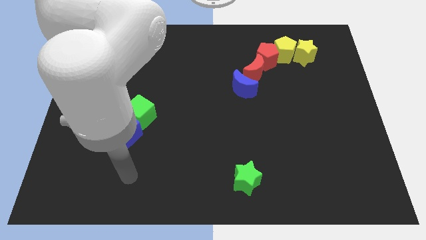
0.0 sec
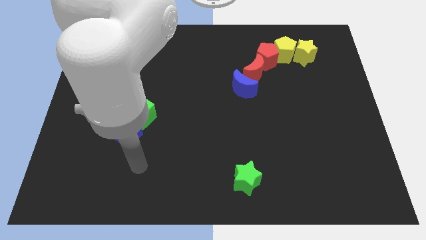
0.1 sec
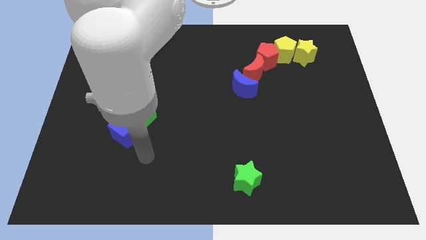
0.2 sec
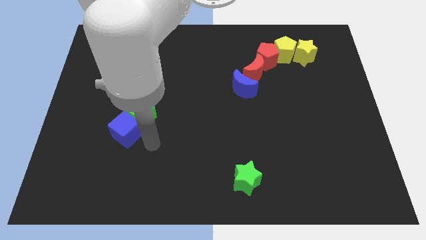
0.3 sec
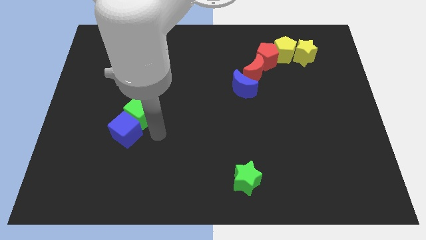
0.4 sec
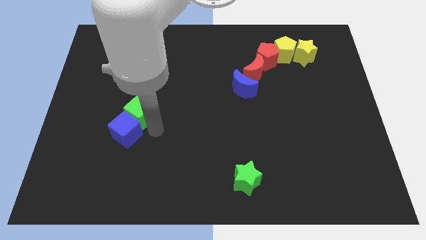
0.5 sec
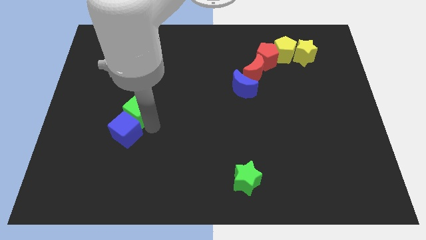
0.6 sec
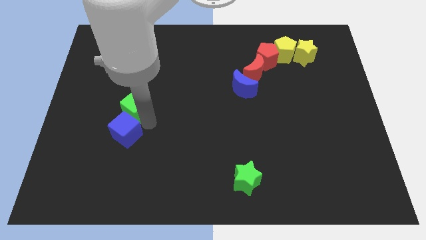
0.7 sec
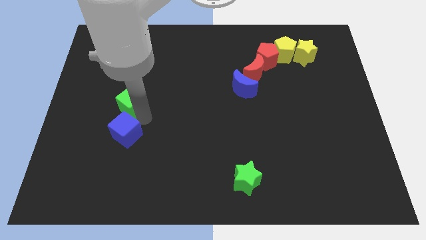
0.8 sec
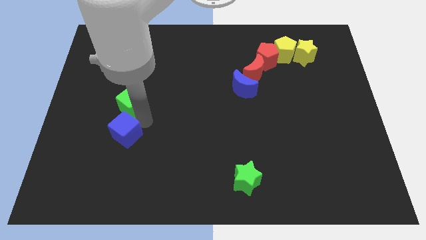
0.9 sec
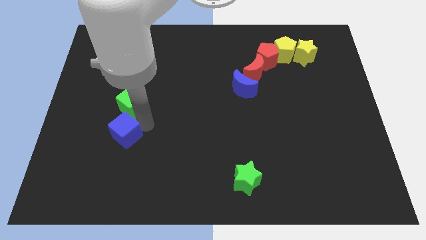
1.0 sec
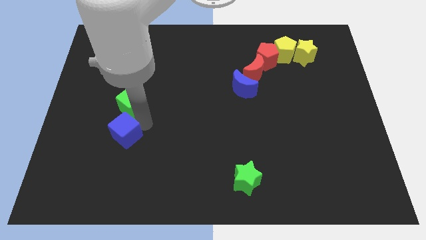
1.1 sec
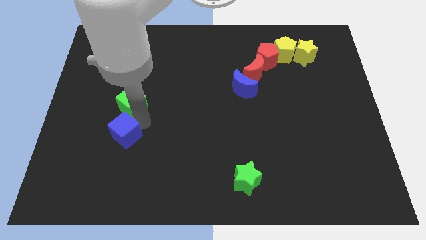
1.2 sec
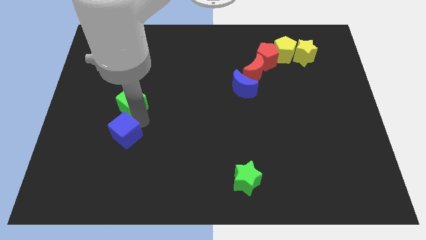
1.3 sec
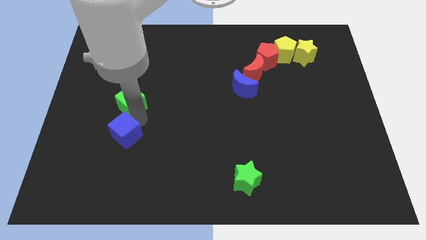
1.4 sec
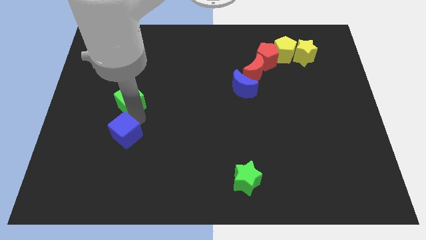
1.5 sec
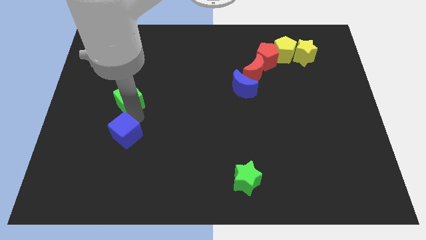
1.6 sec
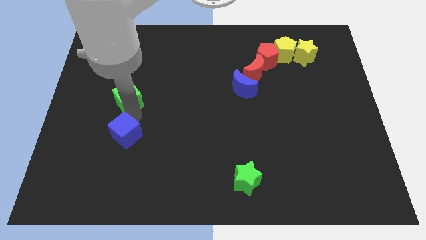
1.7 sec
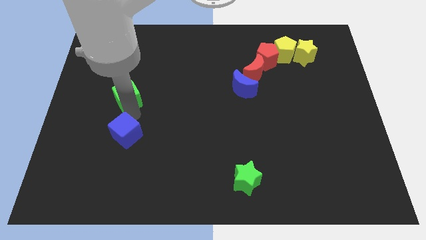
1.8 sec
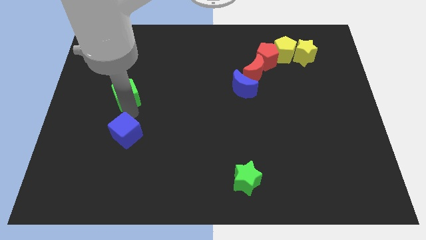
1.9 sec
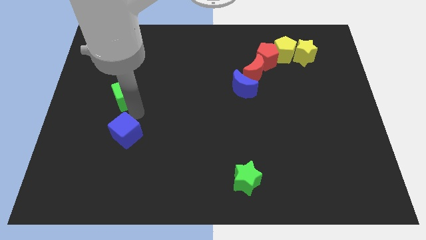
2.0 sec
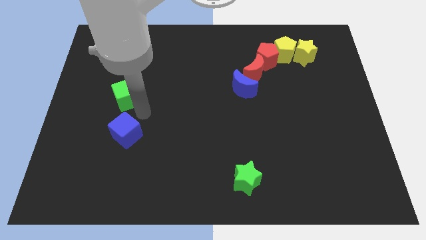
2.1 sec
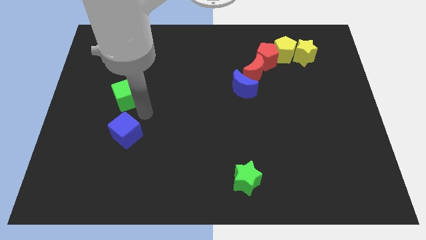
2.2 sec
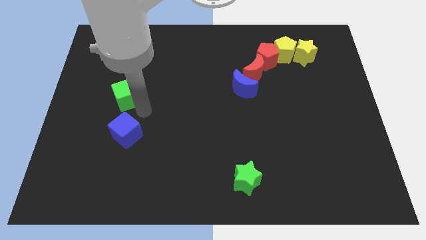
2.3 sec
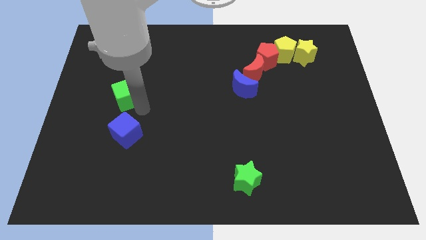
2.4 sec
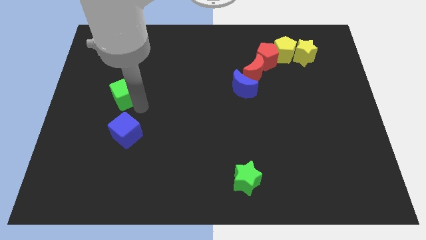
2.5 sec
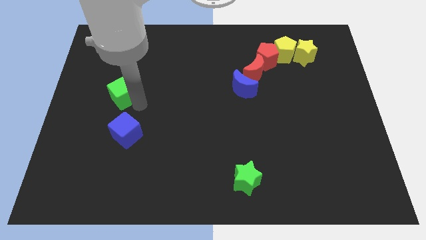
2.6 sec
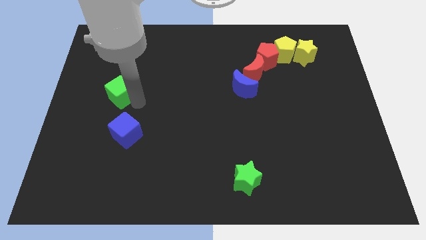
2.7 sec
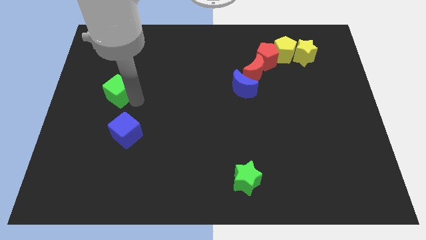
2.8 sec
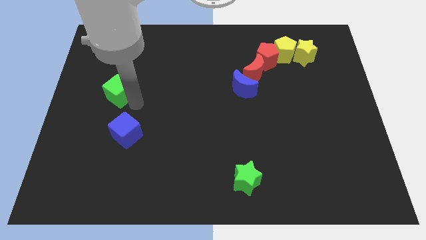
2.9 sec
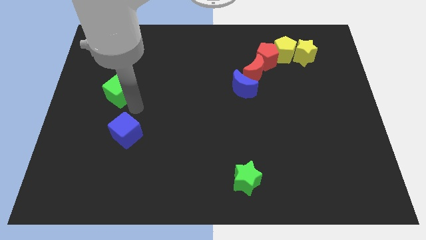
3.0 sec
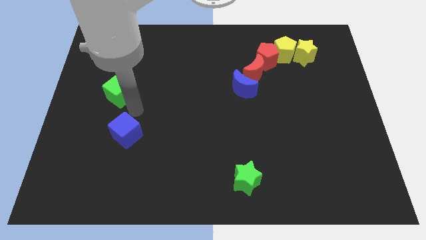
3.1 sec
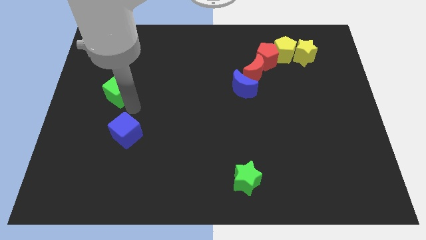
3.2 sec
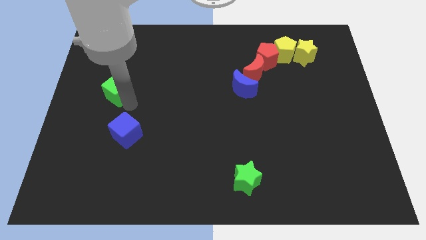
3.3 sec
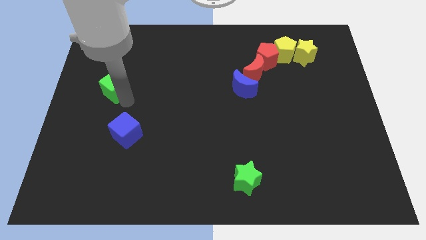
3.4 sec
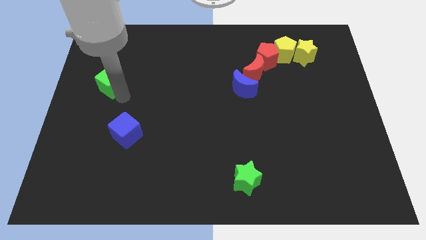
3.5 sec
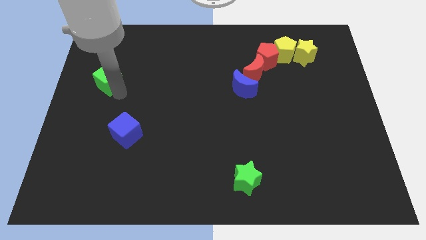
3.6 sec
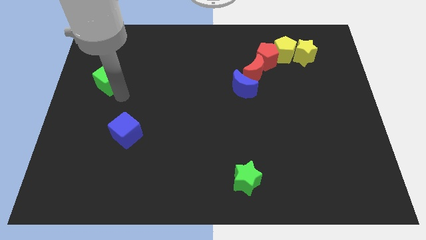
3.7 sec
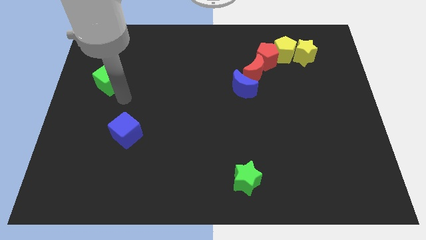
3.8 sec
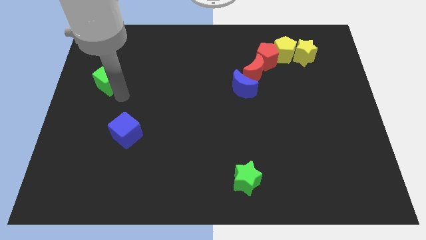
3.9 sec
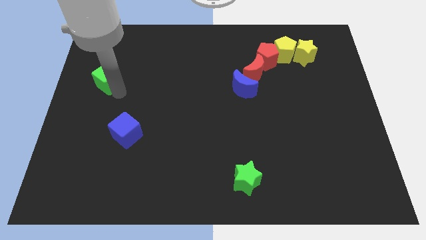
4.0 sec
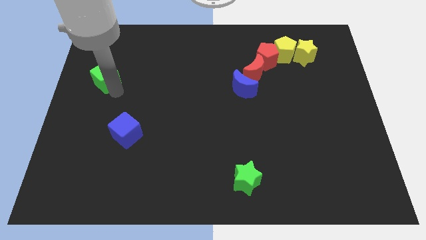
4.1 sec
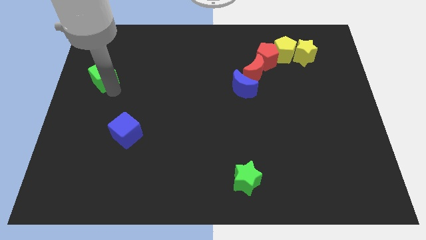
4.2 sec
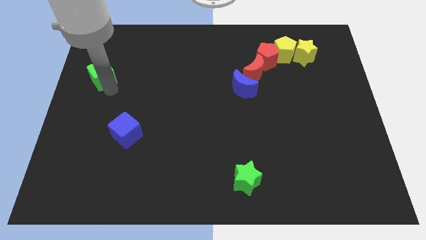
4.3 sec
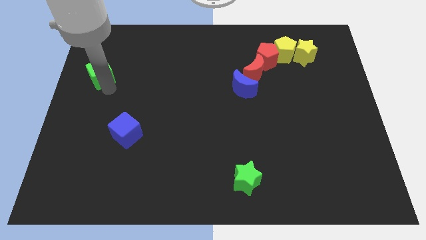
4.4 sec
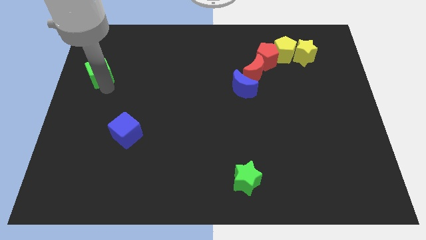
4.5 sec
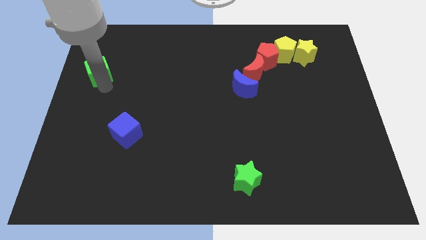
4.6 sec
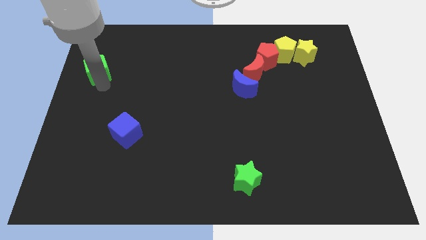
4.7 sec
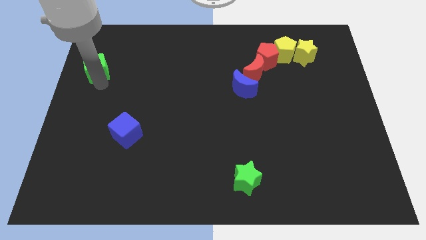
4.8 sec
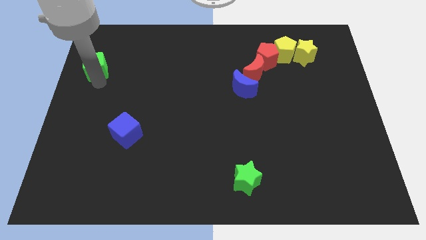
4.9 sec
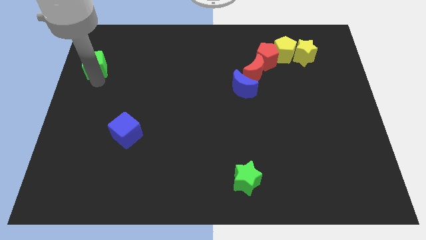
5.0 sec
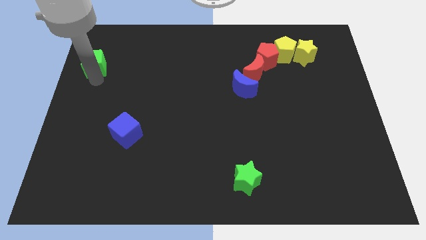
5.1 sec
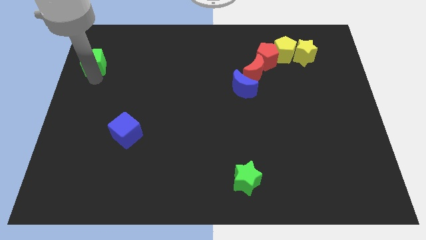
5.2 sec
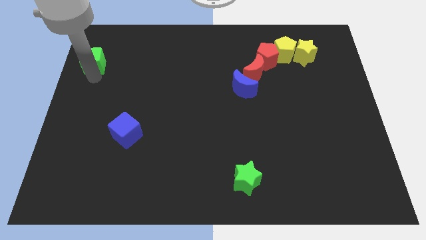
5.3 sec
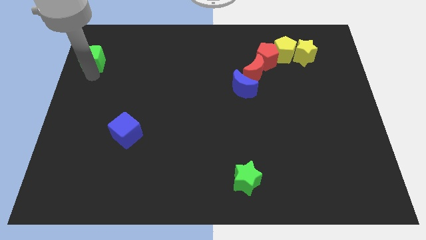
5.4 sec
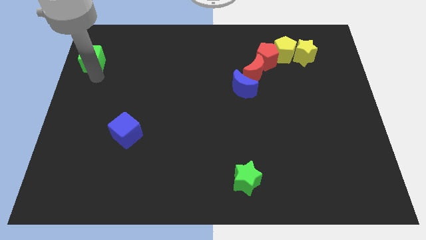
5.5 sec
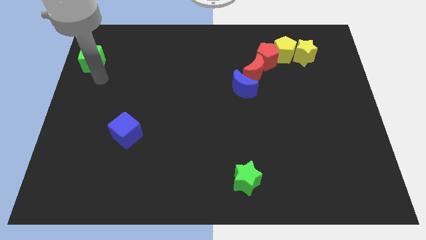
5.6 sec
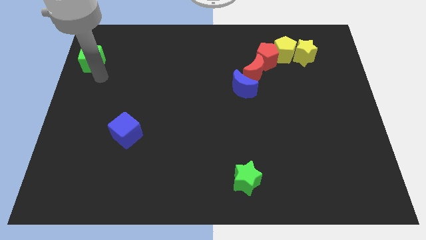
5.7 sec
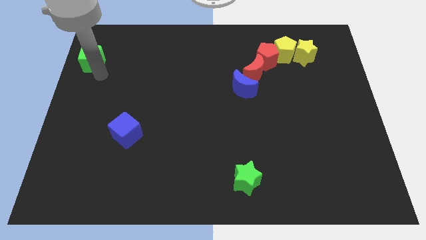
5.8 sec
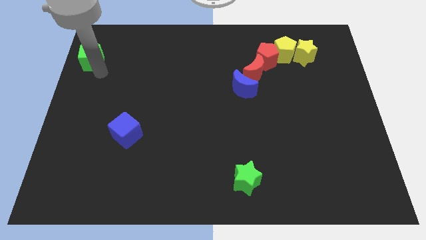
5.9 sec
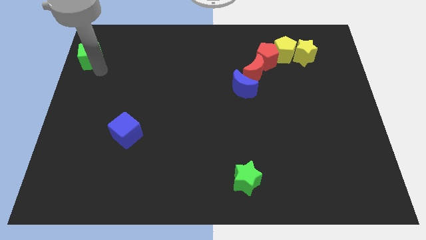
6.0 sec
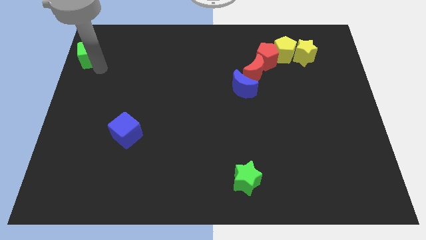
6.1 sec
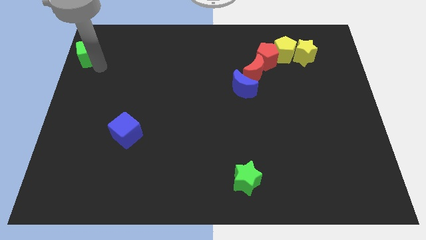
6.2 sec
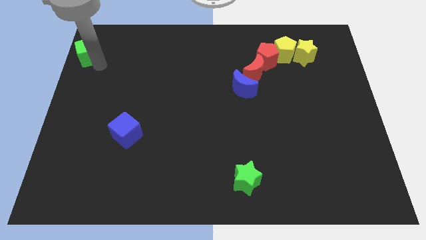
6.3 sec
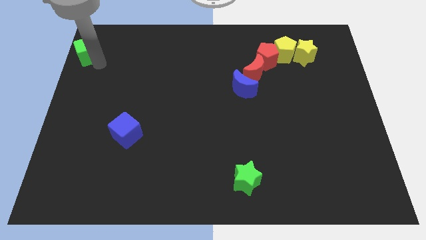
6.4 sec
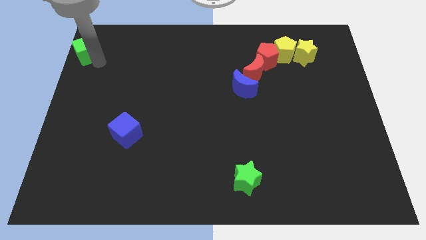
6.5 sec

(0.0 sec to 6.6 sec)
slide the green cube to the top left
